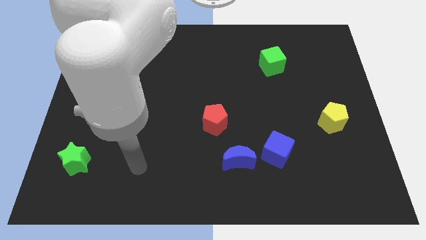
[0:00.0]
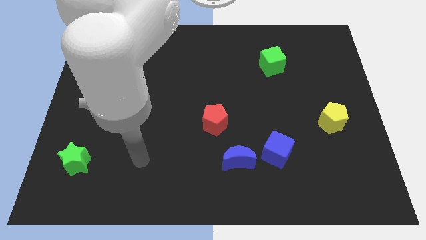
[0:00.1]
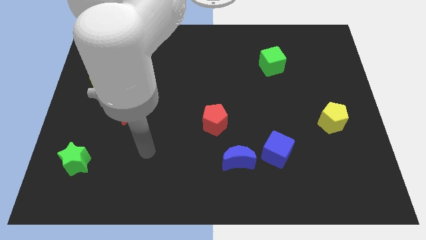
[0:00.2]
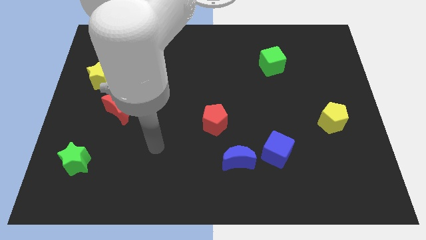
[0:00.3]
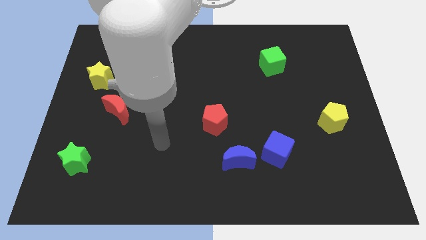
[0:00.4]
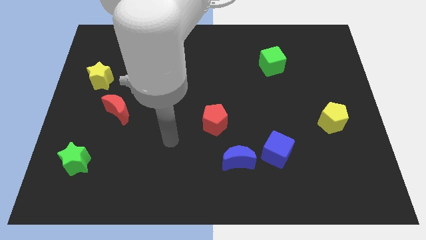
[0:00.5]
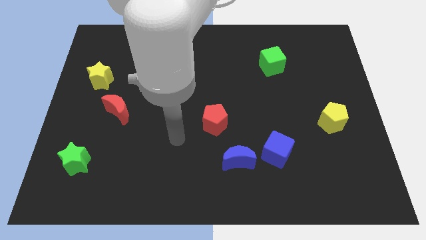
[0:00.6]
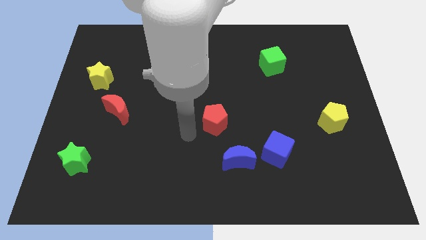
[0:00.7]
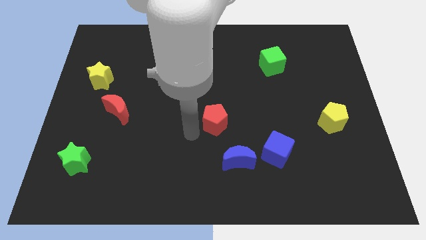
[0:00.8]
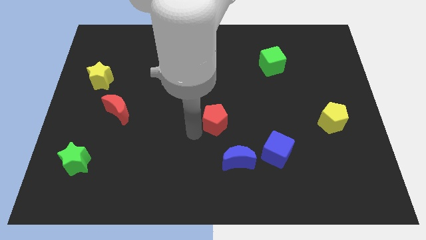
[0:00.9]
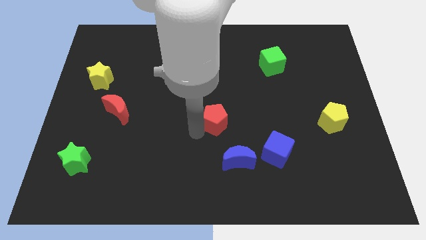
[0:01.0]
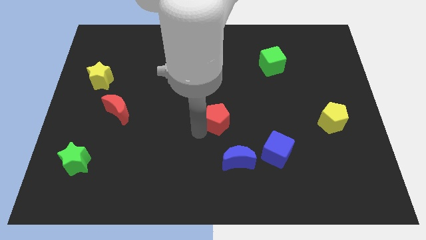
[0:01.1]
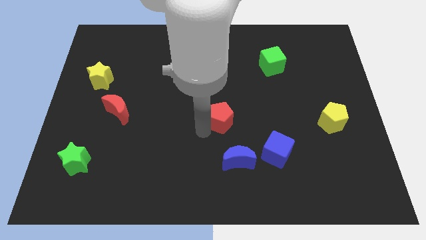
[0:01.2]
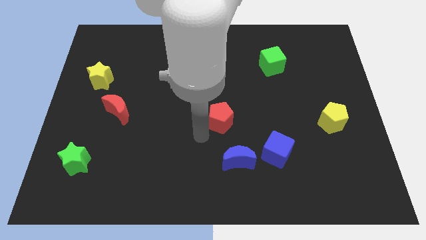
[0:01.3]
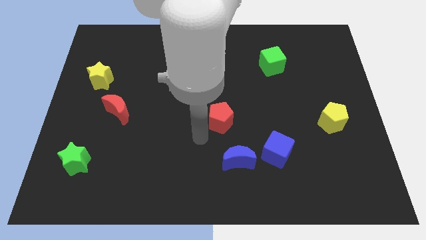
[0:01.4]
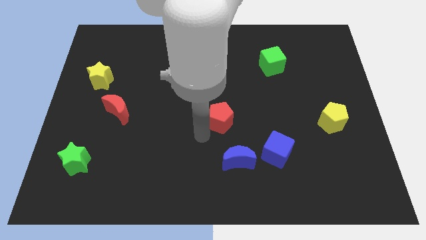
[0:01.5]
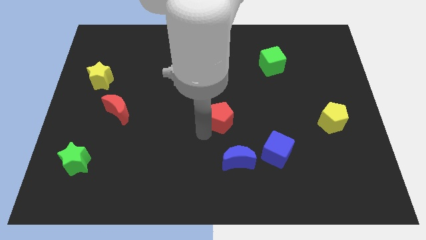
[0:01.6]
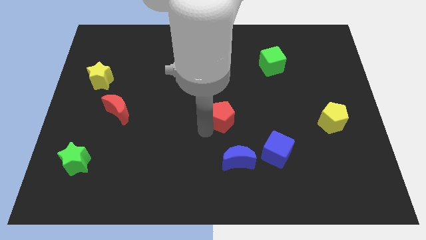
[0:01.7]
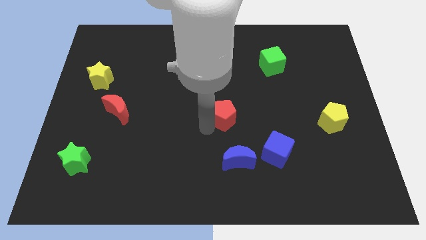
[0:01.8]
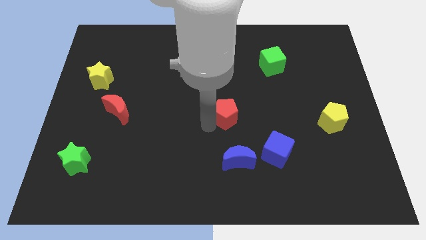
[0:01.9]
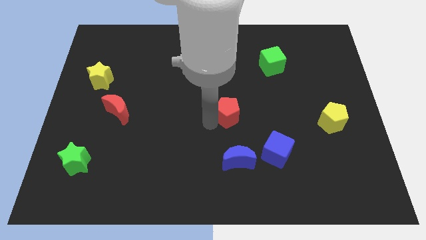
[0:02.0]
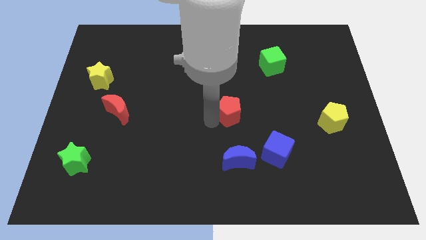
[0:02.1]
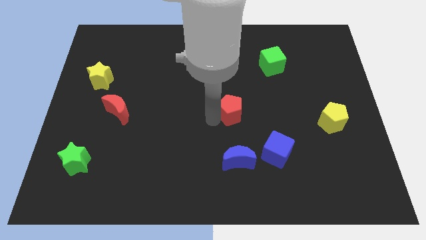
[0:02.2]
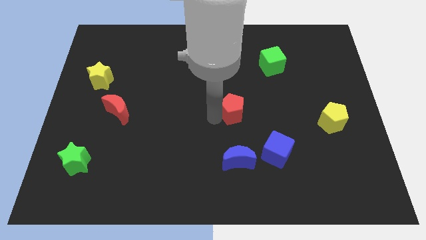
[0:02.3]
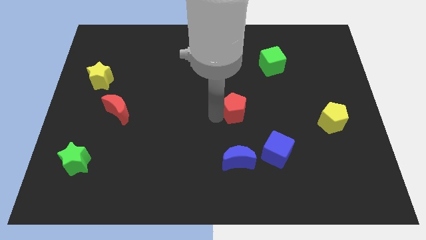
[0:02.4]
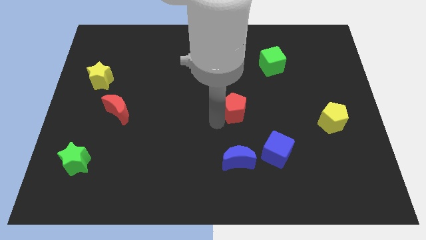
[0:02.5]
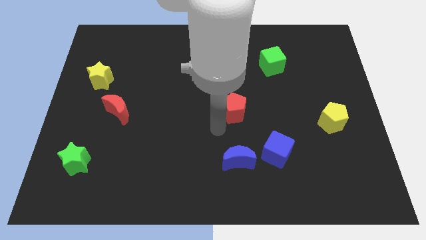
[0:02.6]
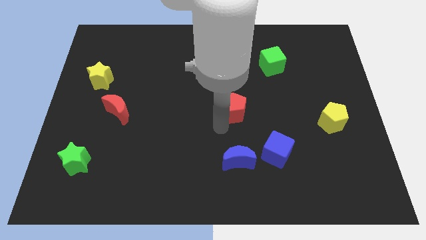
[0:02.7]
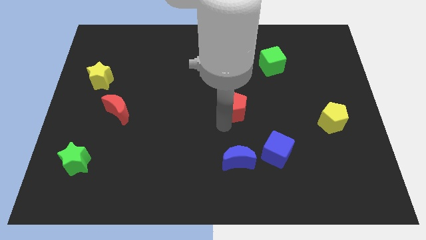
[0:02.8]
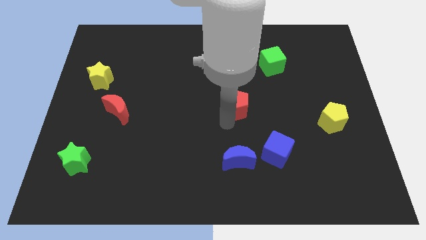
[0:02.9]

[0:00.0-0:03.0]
slightly slide the red pentagon upwards and to the right diagonally

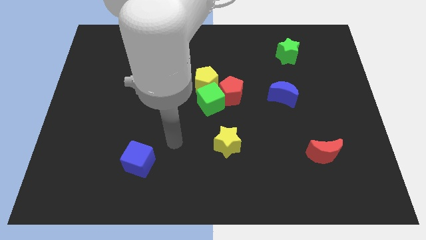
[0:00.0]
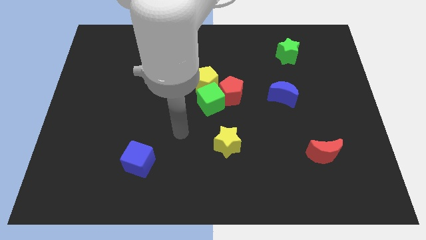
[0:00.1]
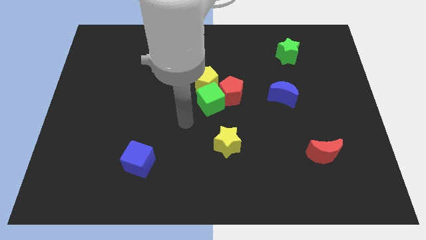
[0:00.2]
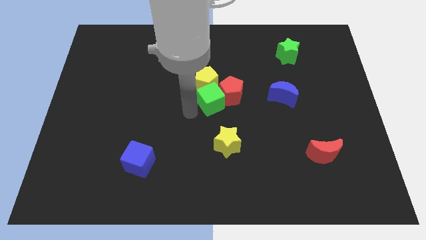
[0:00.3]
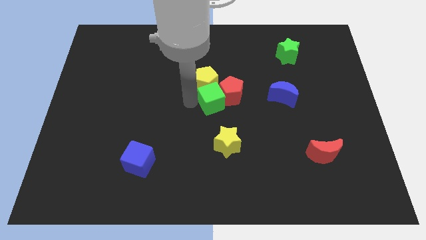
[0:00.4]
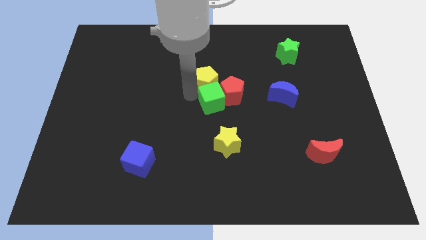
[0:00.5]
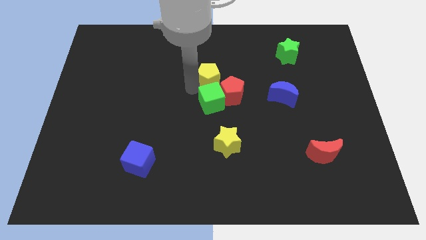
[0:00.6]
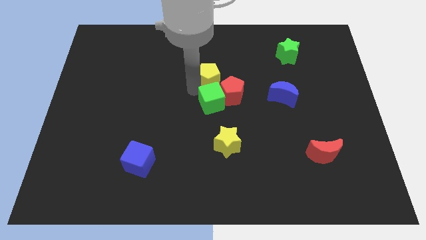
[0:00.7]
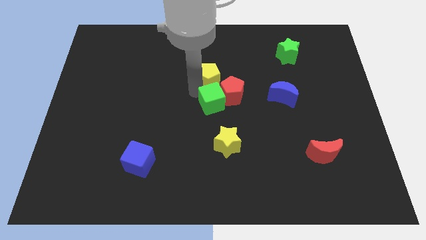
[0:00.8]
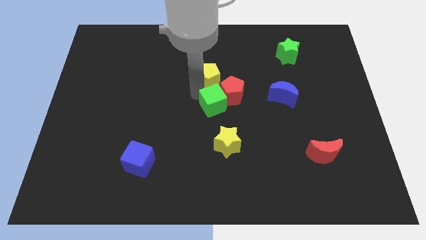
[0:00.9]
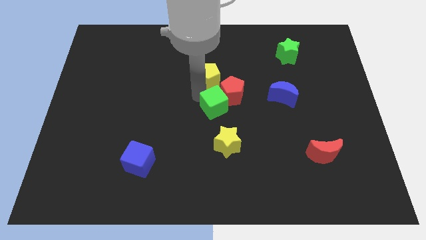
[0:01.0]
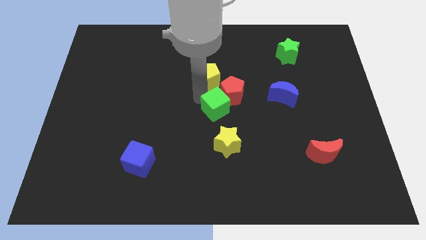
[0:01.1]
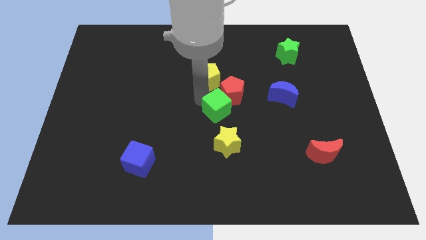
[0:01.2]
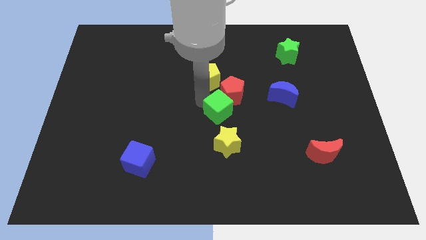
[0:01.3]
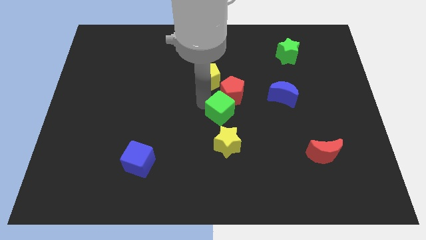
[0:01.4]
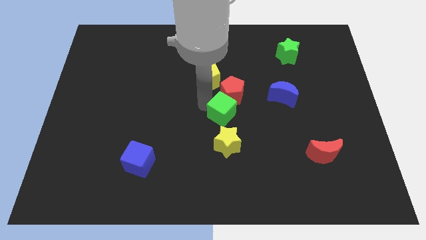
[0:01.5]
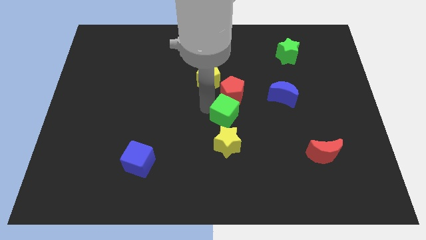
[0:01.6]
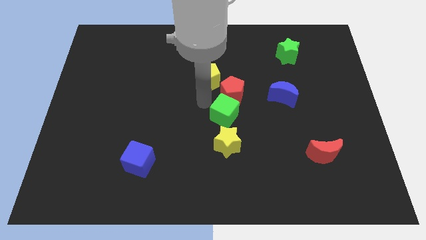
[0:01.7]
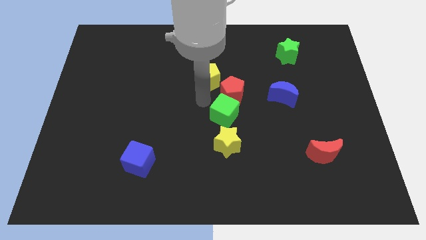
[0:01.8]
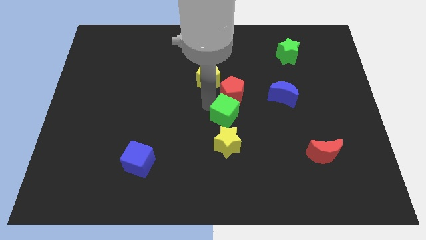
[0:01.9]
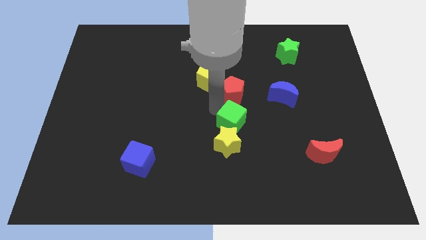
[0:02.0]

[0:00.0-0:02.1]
move the green cube diagonally downwards and to the right slightly

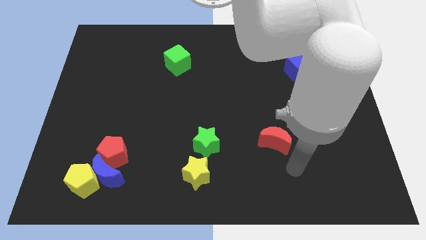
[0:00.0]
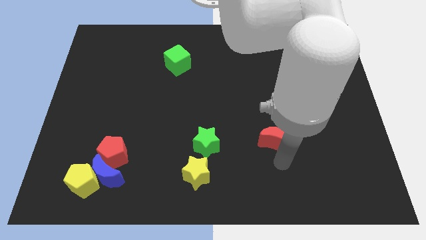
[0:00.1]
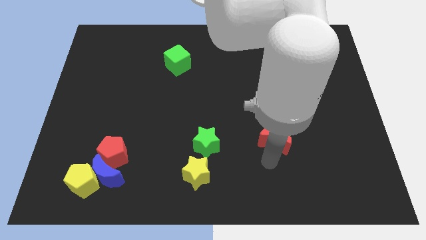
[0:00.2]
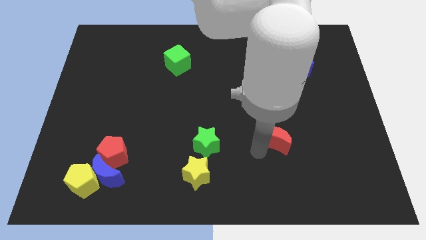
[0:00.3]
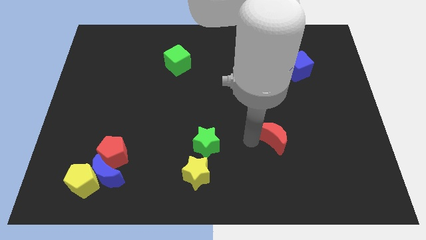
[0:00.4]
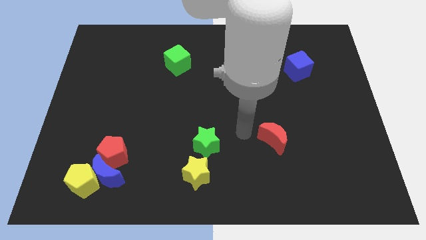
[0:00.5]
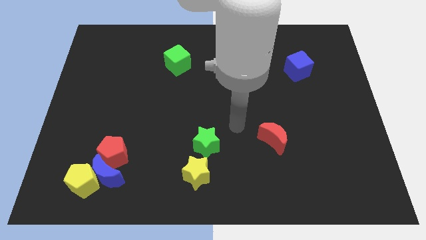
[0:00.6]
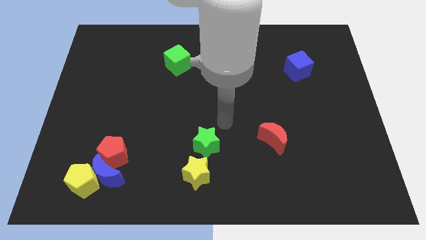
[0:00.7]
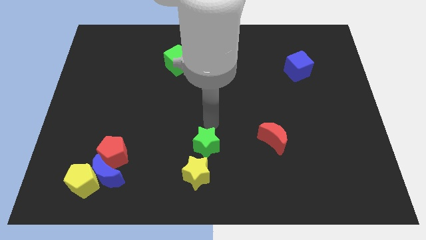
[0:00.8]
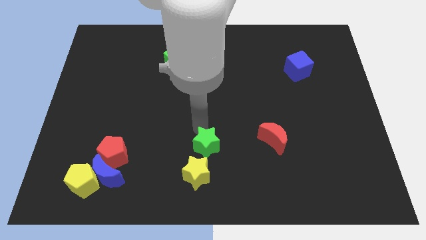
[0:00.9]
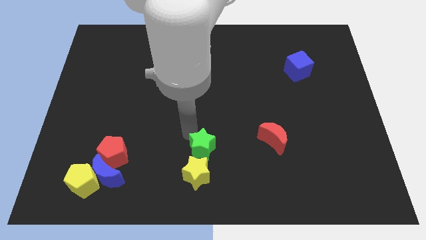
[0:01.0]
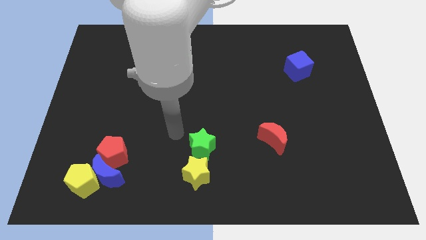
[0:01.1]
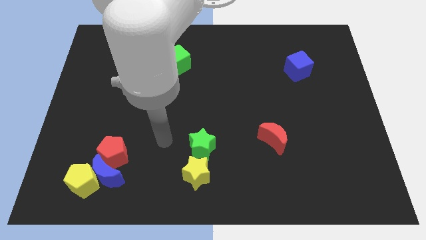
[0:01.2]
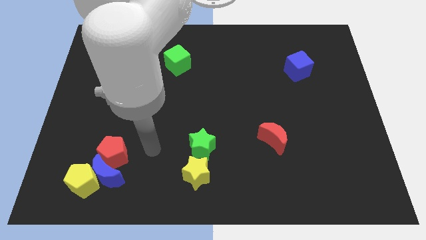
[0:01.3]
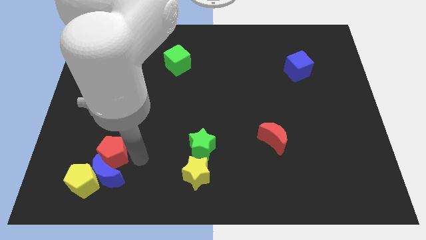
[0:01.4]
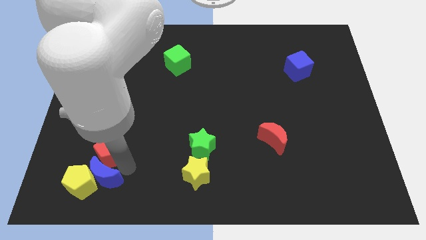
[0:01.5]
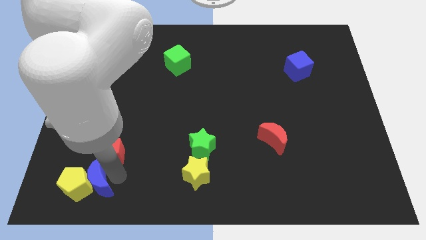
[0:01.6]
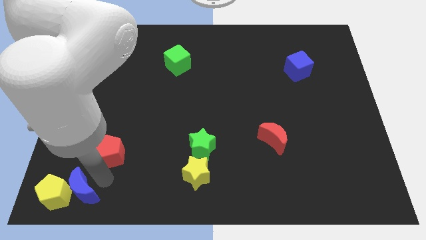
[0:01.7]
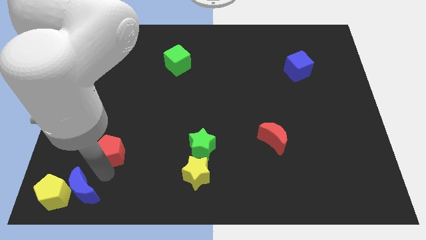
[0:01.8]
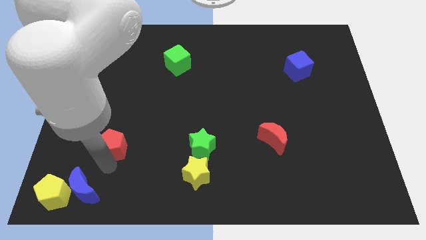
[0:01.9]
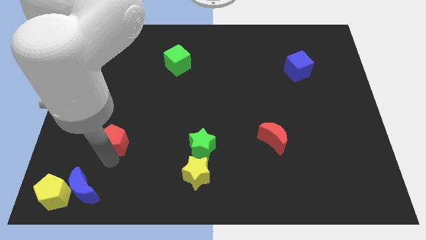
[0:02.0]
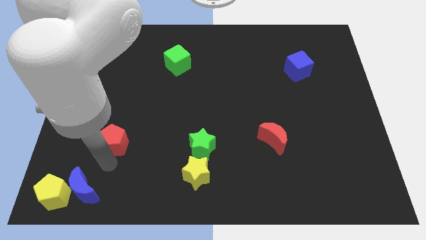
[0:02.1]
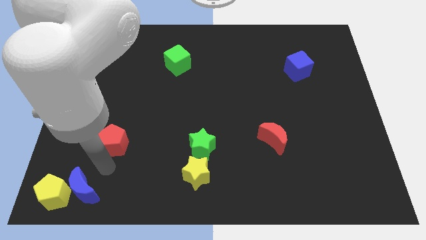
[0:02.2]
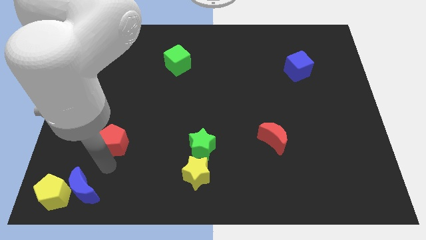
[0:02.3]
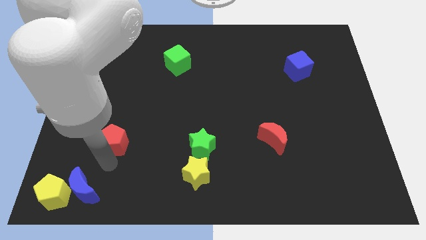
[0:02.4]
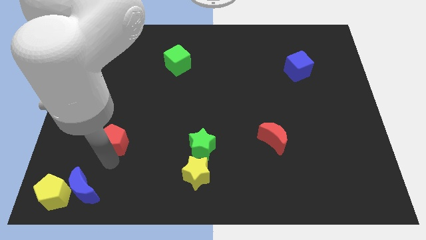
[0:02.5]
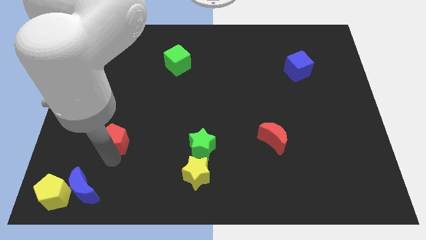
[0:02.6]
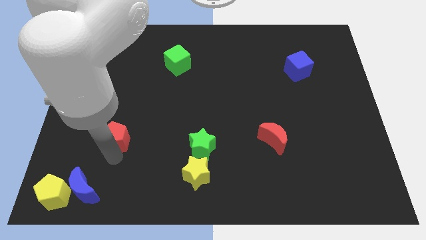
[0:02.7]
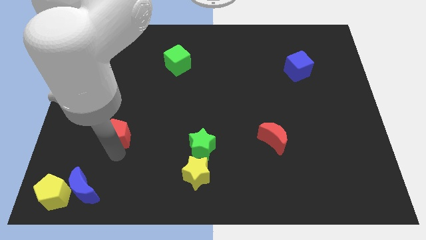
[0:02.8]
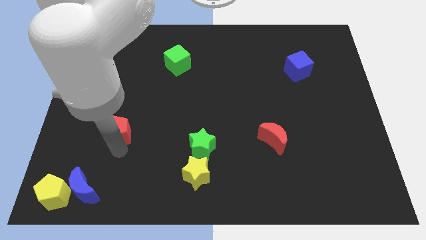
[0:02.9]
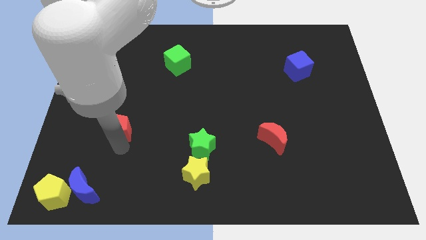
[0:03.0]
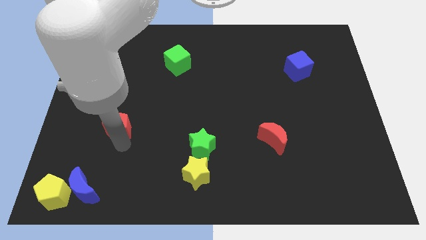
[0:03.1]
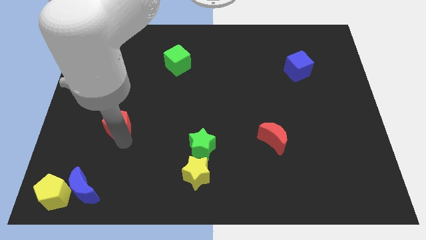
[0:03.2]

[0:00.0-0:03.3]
move the red pentagon somewhat up
